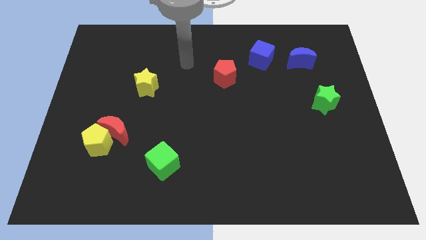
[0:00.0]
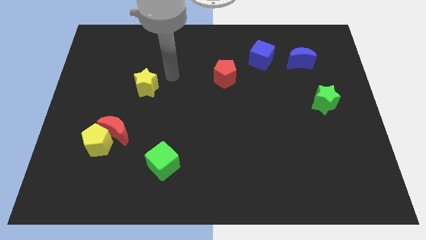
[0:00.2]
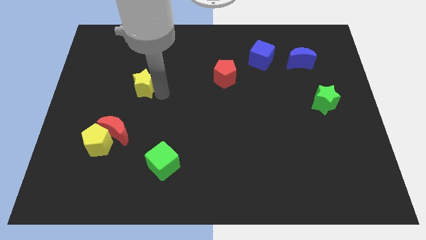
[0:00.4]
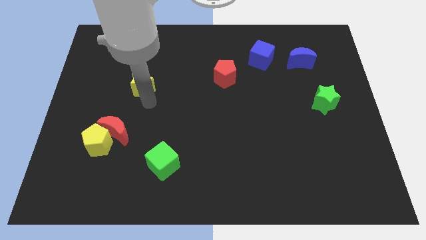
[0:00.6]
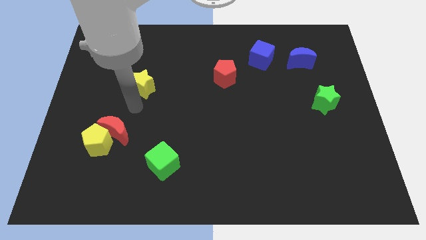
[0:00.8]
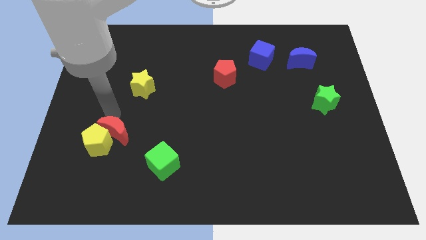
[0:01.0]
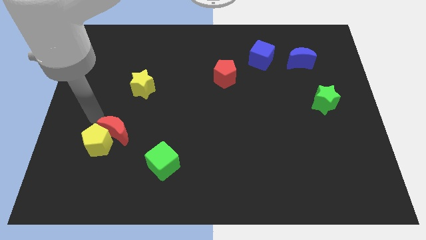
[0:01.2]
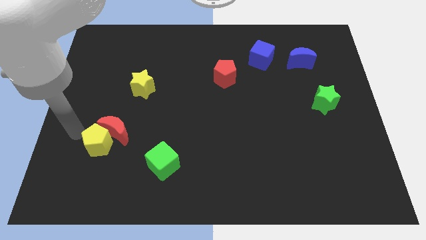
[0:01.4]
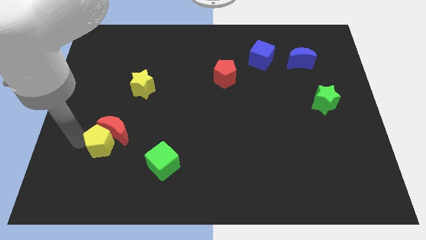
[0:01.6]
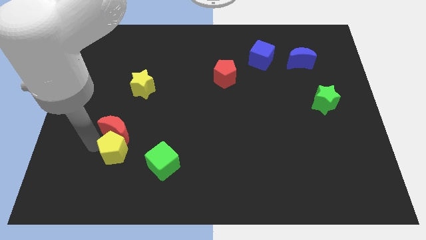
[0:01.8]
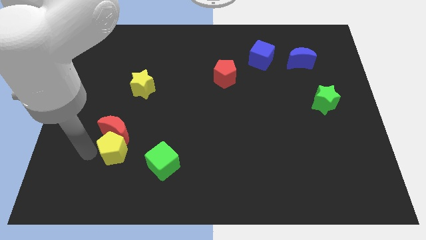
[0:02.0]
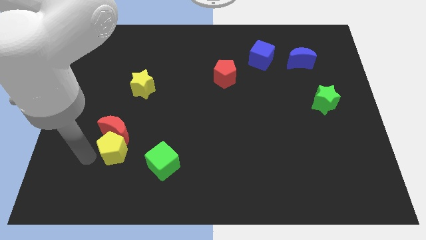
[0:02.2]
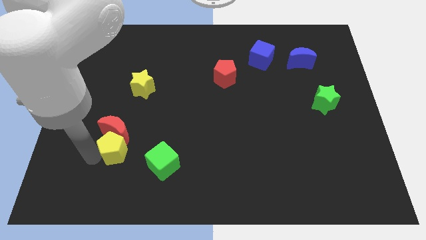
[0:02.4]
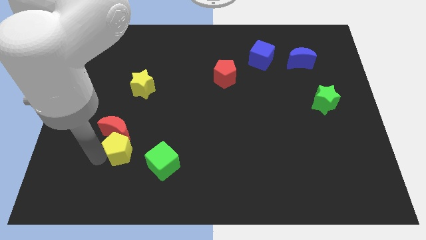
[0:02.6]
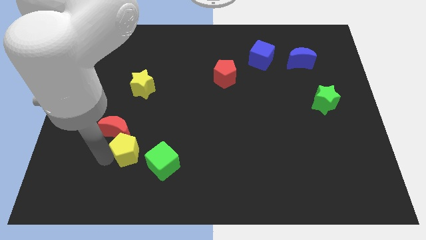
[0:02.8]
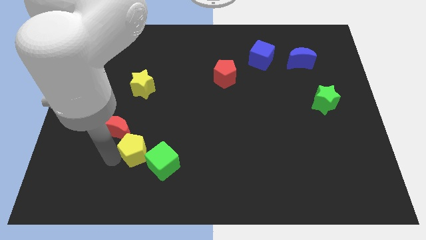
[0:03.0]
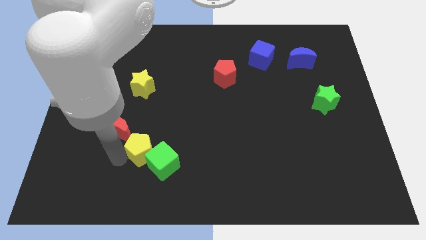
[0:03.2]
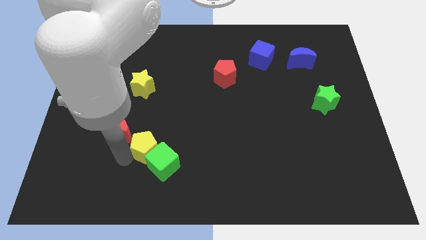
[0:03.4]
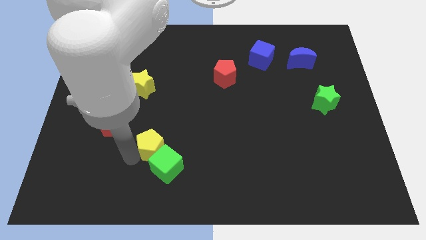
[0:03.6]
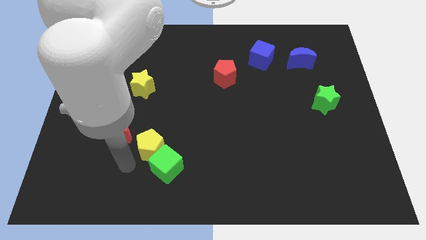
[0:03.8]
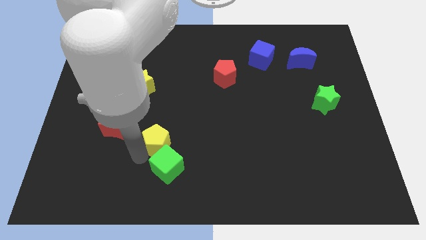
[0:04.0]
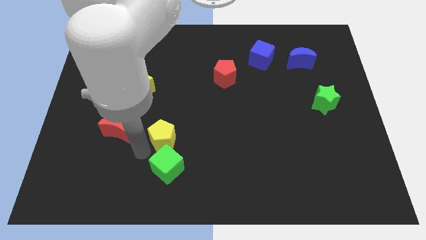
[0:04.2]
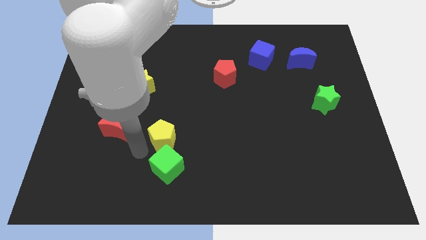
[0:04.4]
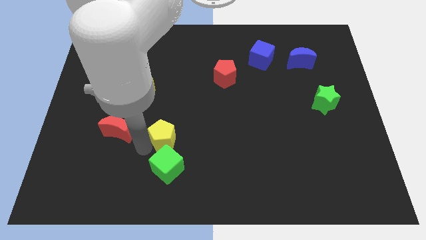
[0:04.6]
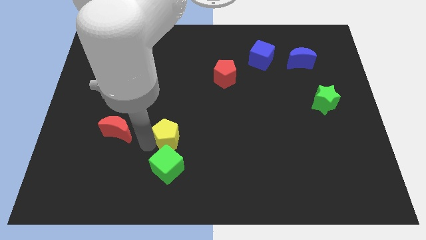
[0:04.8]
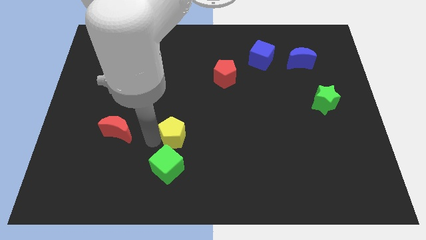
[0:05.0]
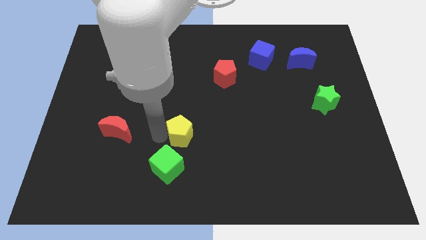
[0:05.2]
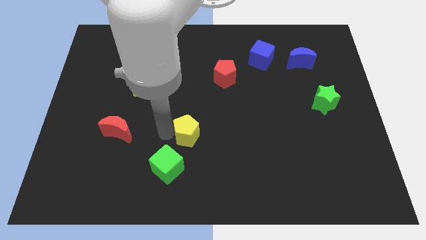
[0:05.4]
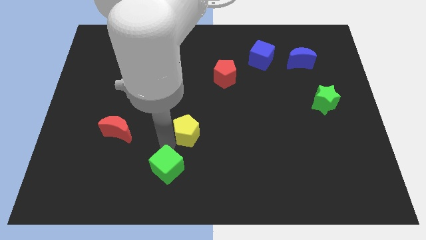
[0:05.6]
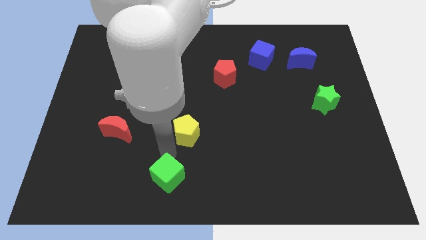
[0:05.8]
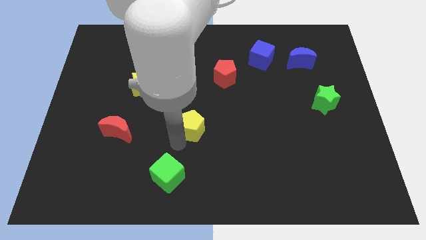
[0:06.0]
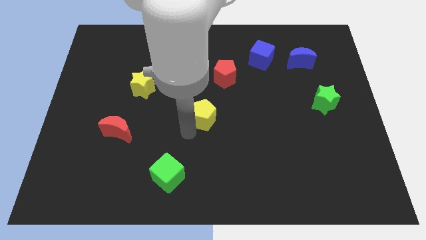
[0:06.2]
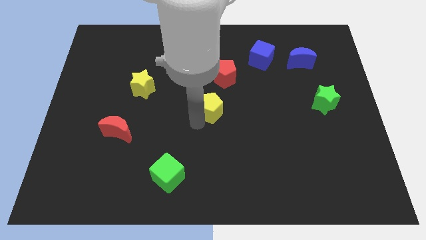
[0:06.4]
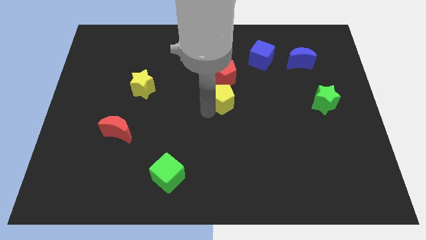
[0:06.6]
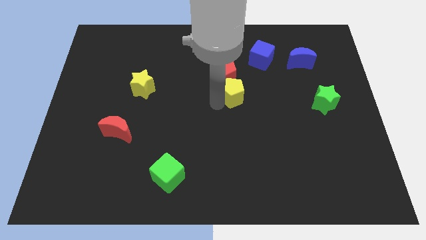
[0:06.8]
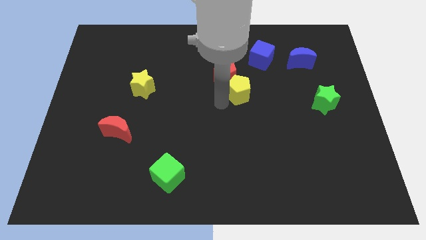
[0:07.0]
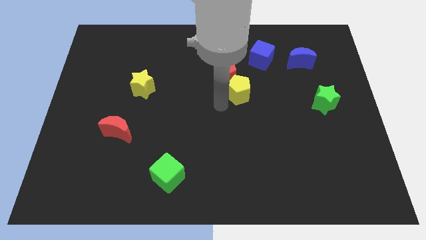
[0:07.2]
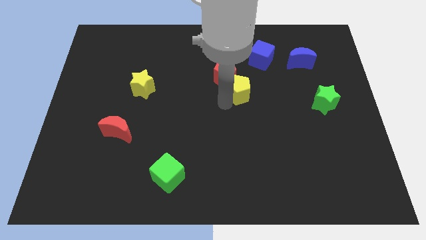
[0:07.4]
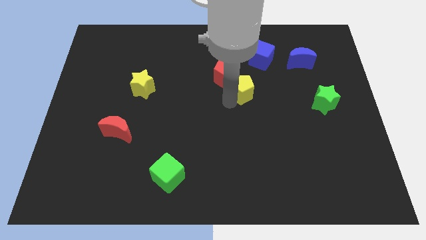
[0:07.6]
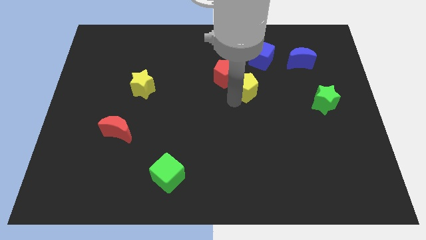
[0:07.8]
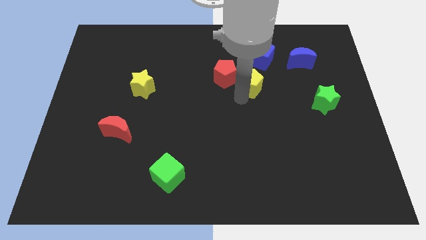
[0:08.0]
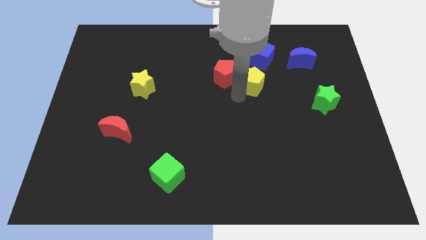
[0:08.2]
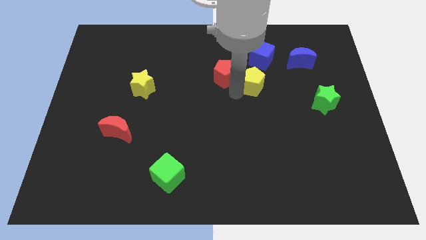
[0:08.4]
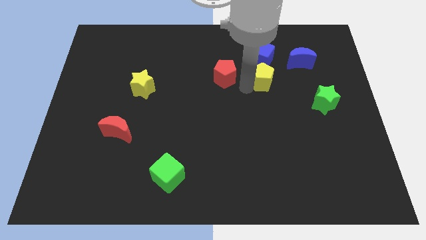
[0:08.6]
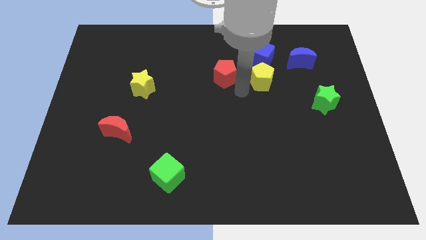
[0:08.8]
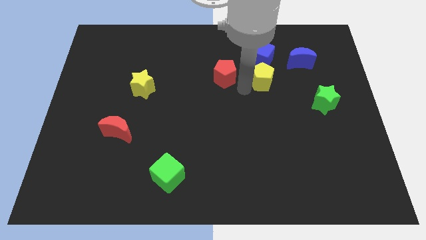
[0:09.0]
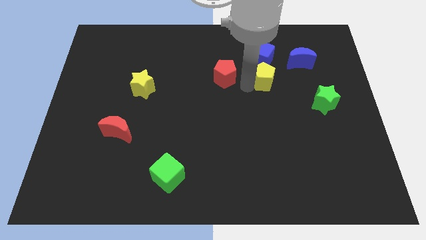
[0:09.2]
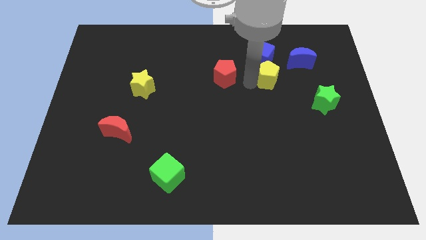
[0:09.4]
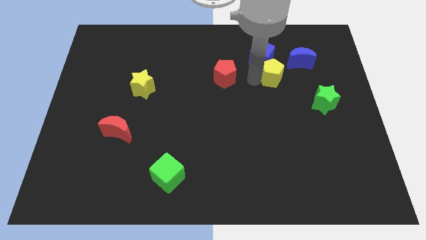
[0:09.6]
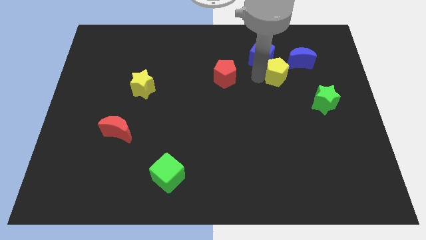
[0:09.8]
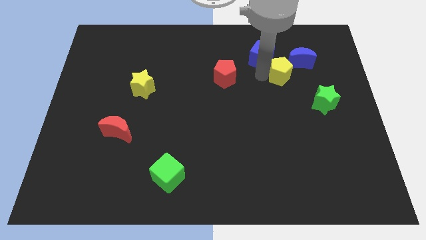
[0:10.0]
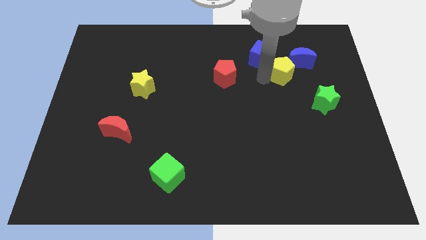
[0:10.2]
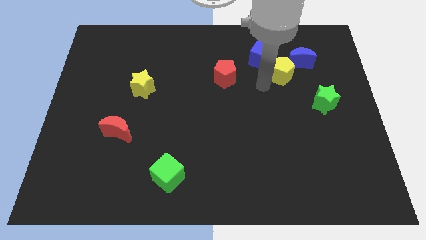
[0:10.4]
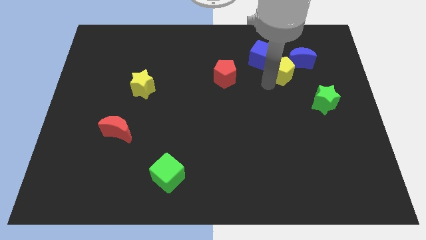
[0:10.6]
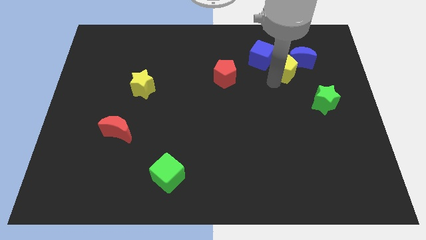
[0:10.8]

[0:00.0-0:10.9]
slide the yellow pentagon to the blue moon

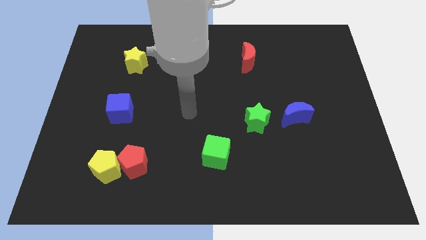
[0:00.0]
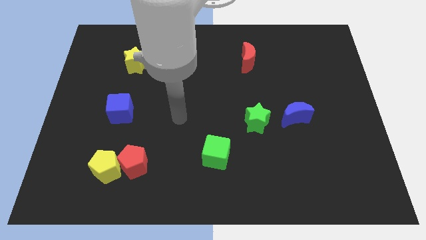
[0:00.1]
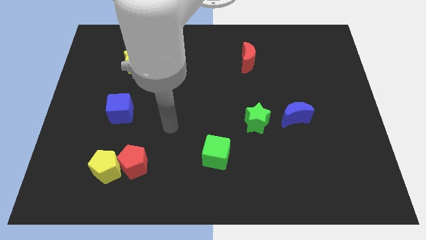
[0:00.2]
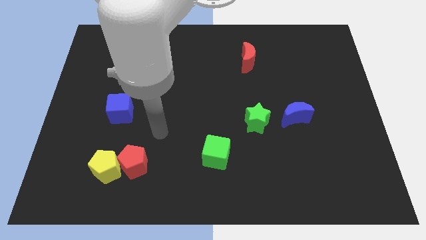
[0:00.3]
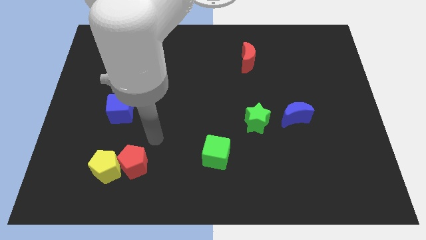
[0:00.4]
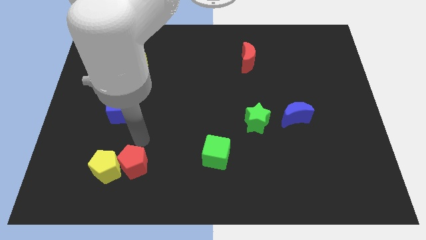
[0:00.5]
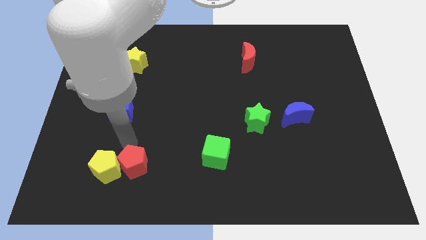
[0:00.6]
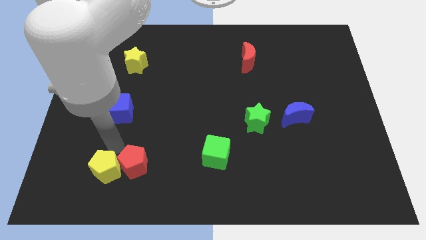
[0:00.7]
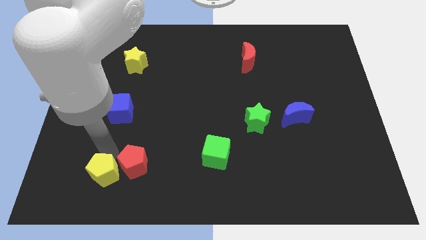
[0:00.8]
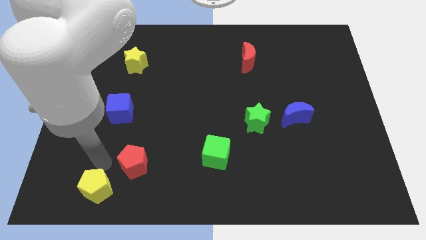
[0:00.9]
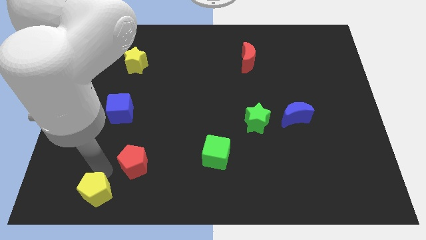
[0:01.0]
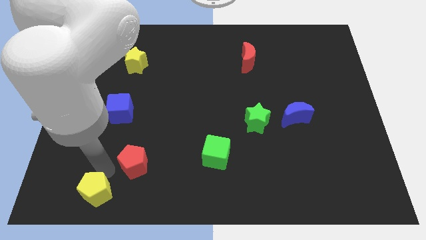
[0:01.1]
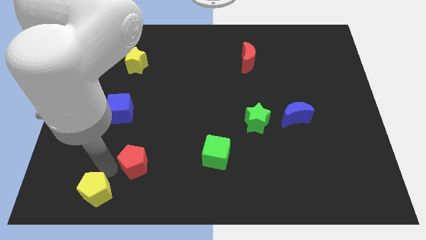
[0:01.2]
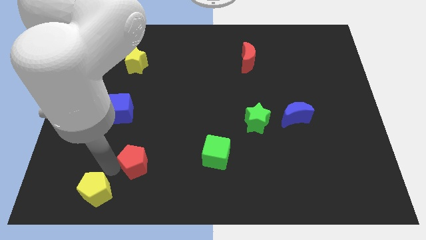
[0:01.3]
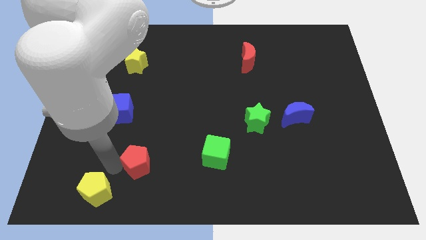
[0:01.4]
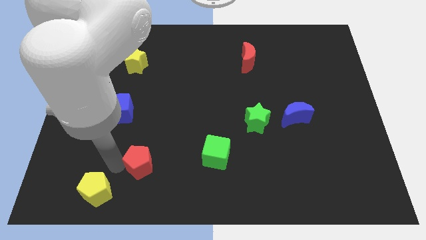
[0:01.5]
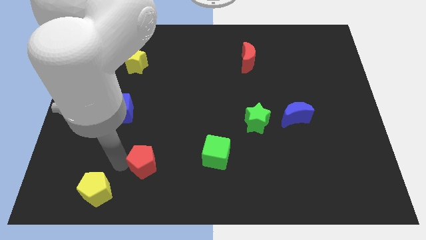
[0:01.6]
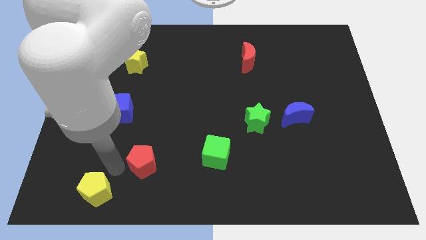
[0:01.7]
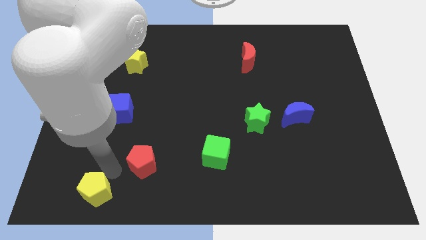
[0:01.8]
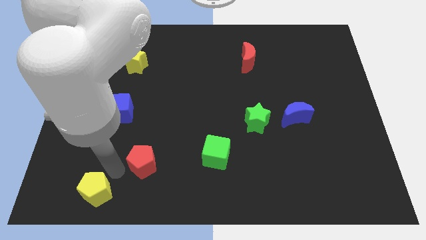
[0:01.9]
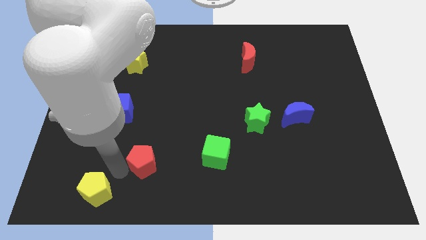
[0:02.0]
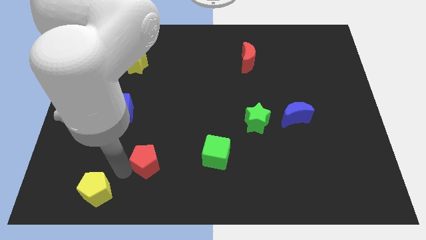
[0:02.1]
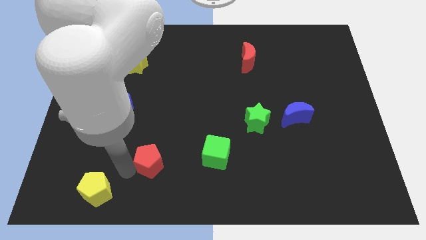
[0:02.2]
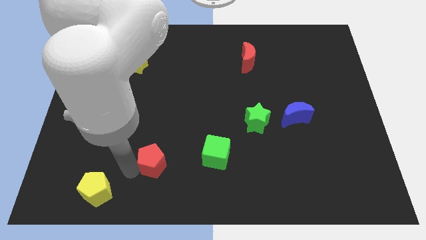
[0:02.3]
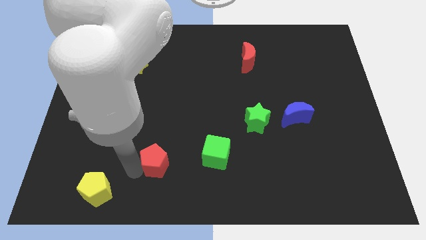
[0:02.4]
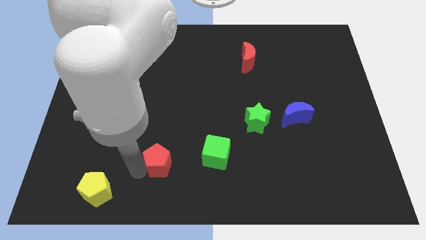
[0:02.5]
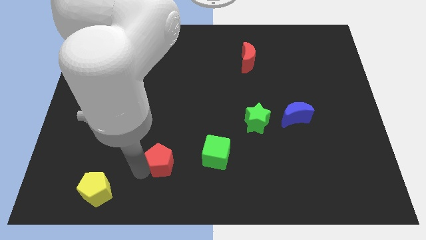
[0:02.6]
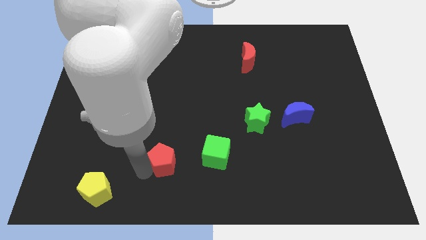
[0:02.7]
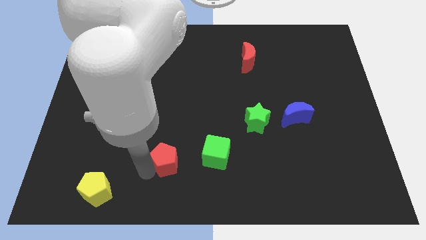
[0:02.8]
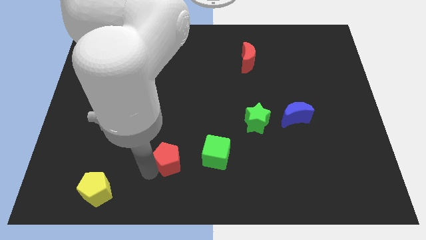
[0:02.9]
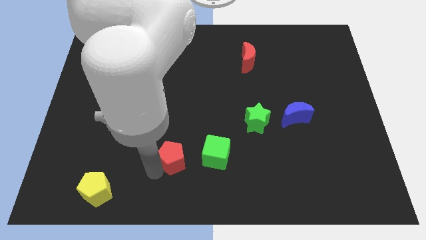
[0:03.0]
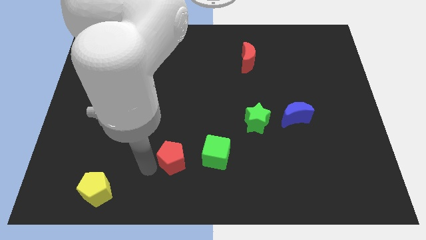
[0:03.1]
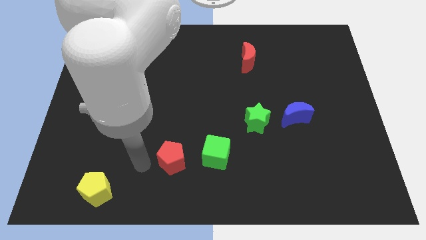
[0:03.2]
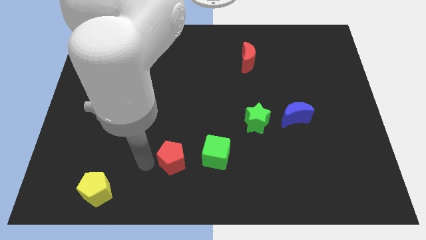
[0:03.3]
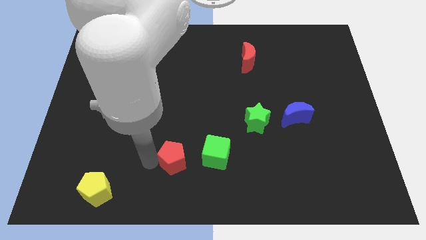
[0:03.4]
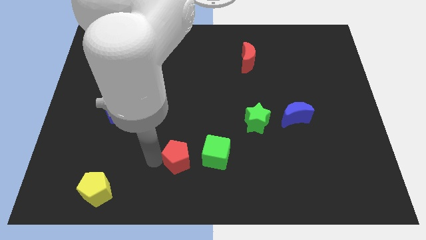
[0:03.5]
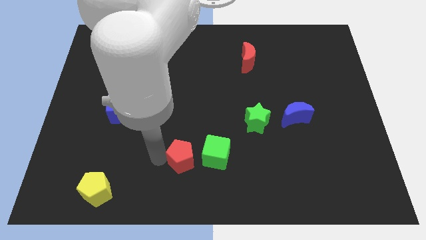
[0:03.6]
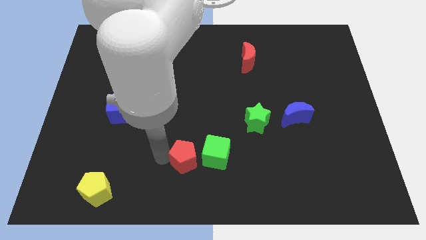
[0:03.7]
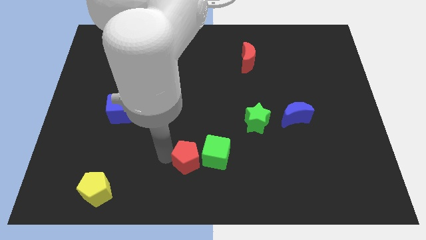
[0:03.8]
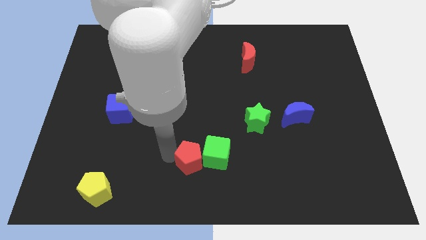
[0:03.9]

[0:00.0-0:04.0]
put the red pentagon close to the green cube
